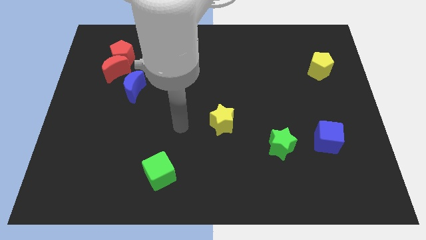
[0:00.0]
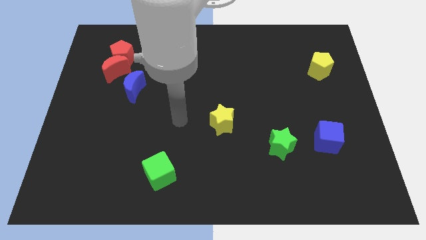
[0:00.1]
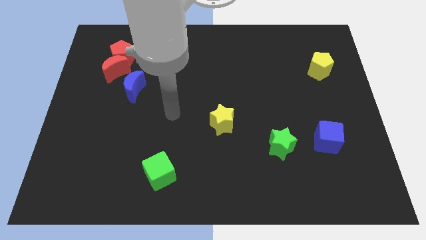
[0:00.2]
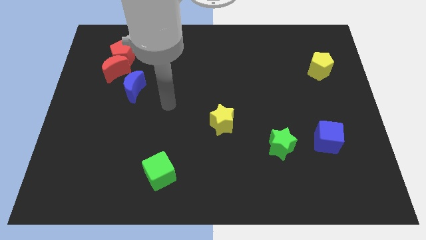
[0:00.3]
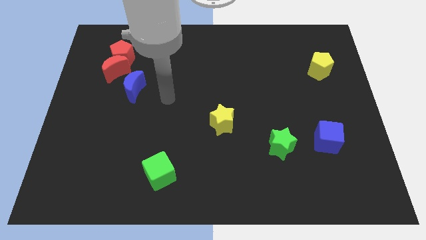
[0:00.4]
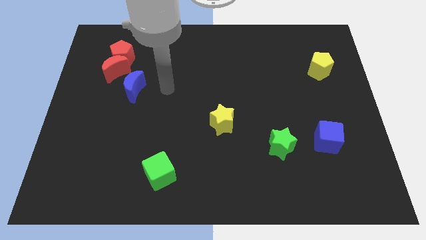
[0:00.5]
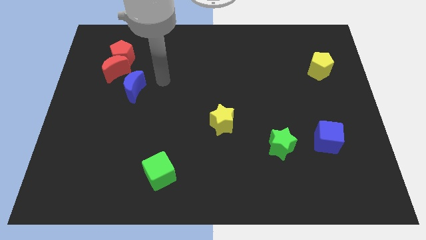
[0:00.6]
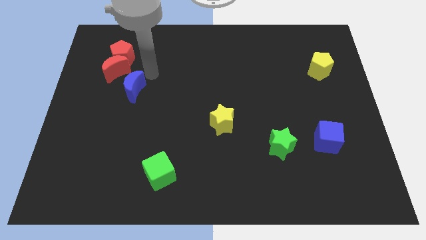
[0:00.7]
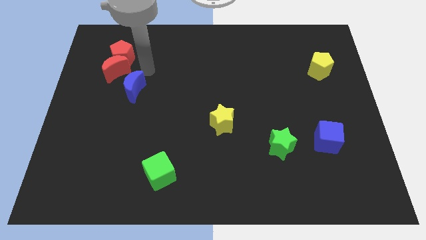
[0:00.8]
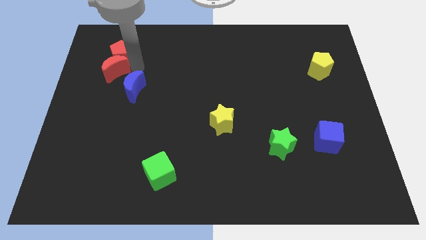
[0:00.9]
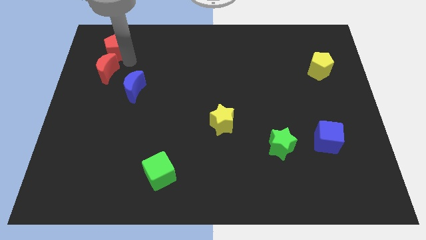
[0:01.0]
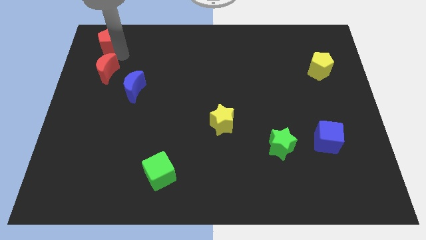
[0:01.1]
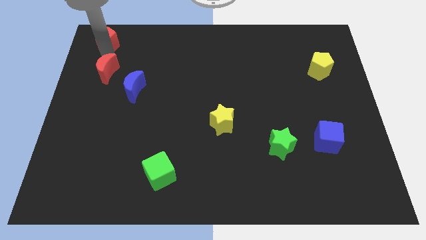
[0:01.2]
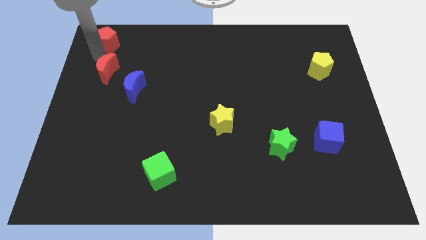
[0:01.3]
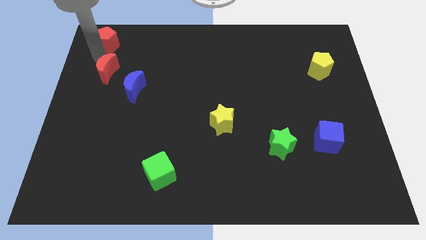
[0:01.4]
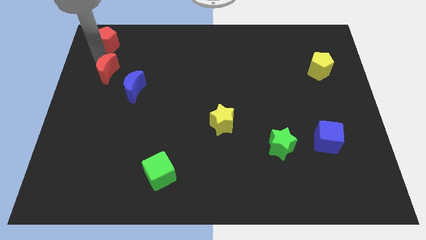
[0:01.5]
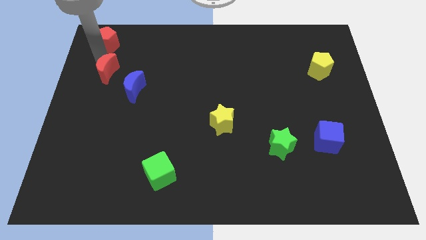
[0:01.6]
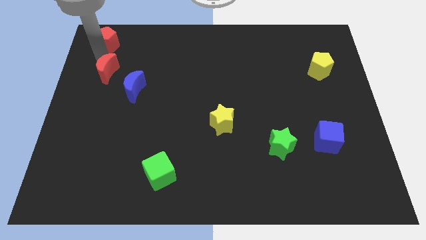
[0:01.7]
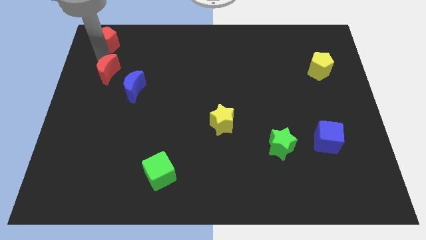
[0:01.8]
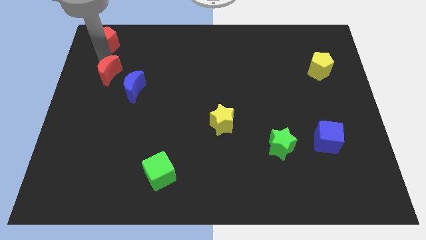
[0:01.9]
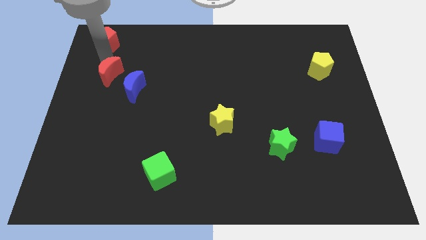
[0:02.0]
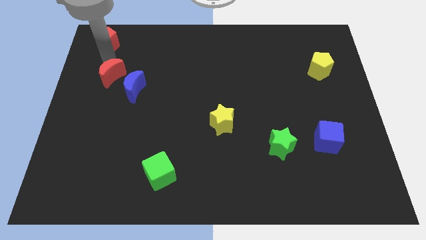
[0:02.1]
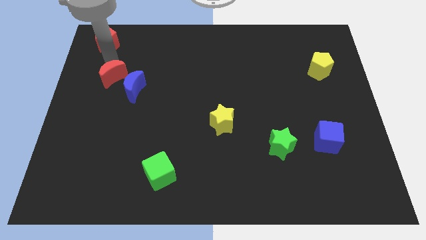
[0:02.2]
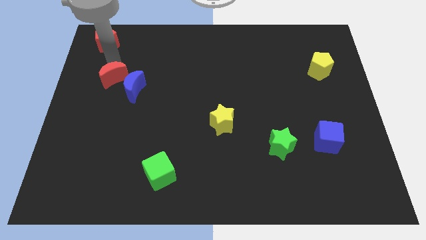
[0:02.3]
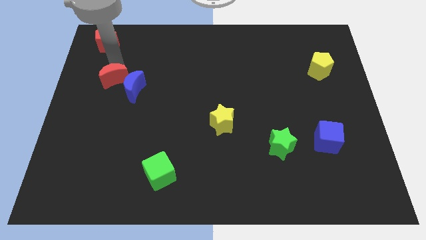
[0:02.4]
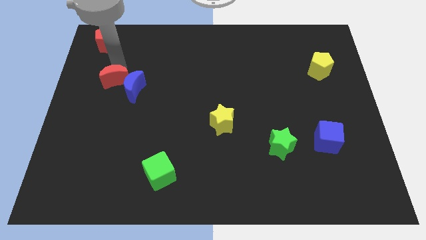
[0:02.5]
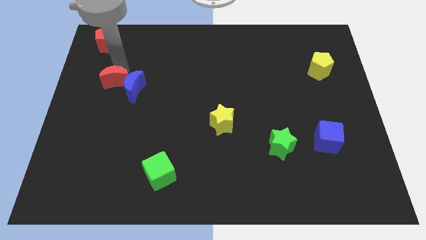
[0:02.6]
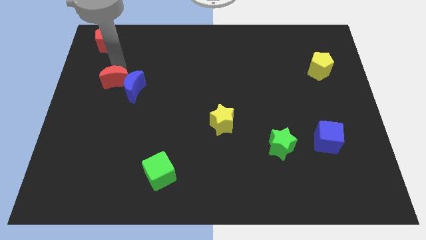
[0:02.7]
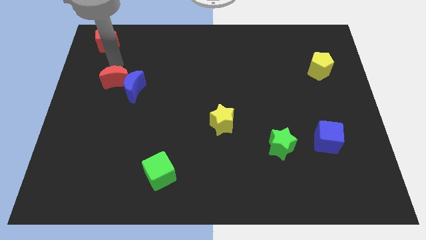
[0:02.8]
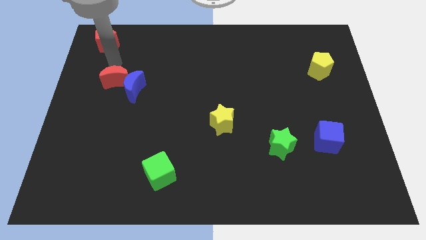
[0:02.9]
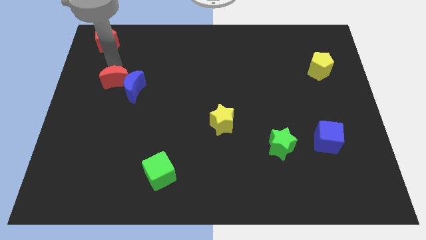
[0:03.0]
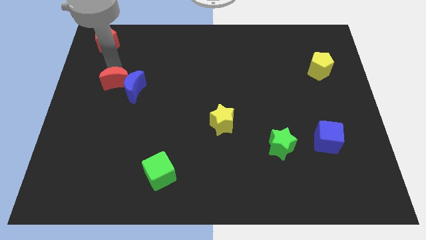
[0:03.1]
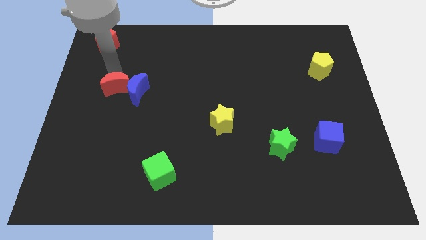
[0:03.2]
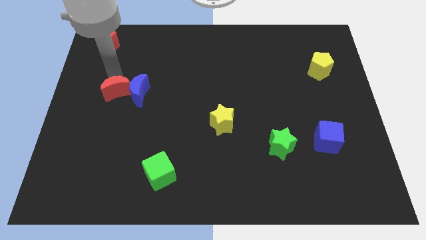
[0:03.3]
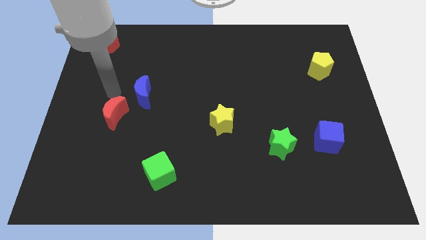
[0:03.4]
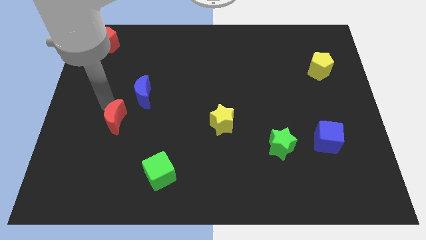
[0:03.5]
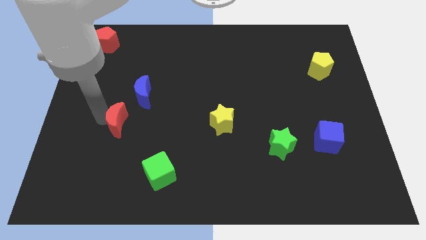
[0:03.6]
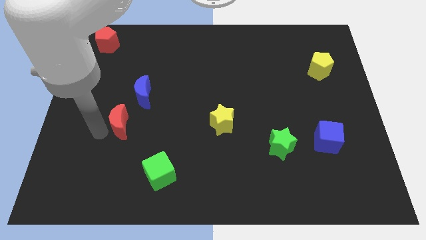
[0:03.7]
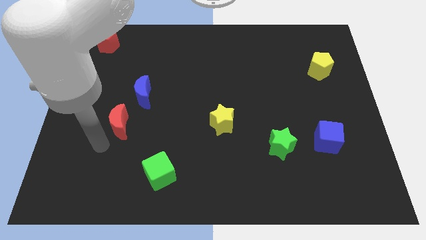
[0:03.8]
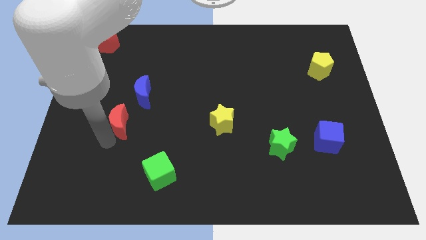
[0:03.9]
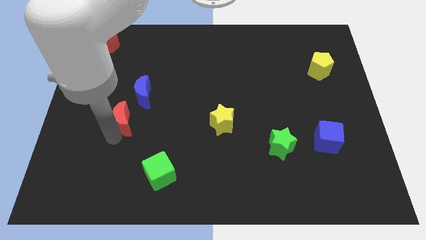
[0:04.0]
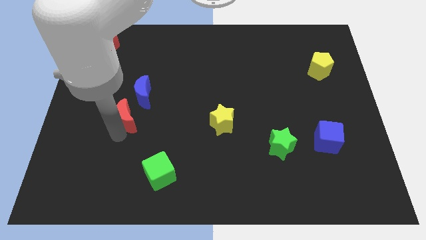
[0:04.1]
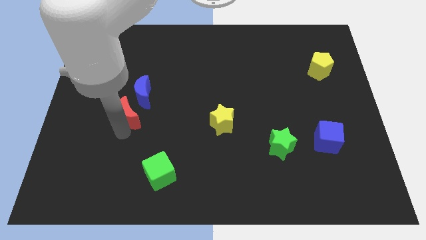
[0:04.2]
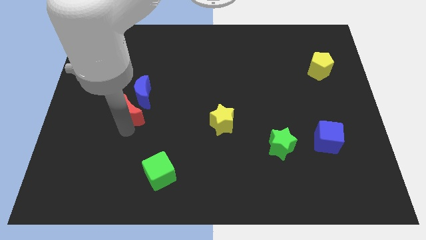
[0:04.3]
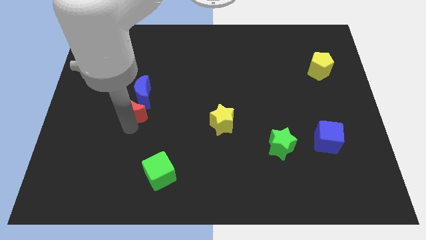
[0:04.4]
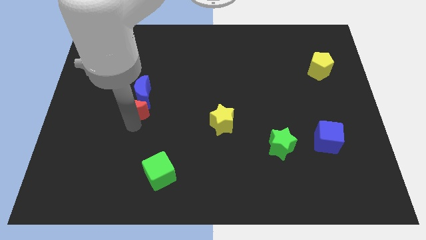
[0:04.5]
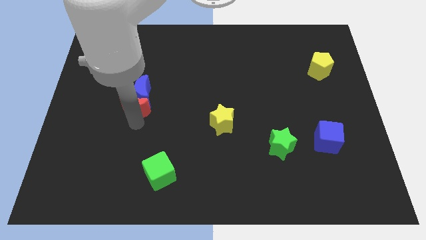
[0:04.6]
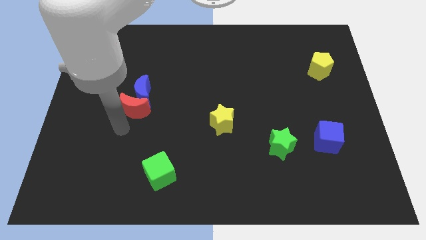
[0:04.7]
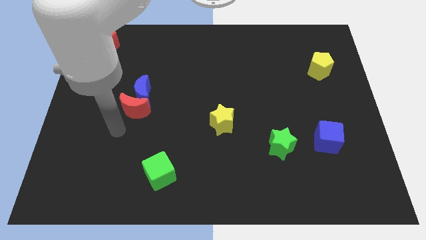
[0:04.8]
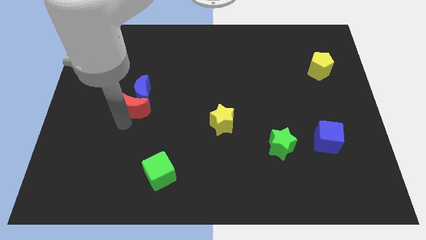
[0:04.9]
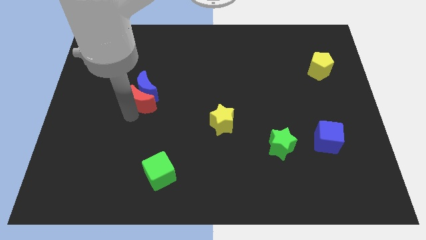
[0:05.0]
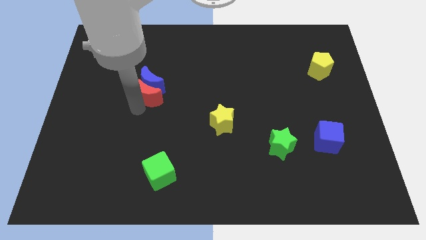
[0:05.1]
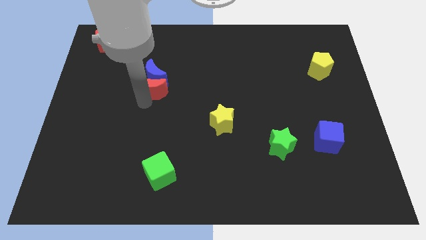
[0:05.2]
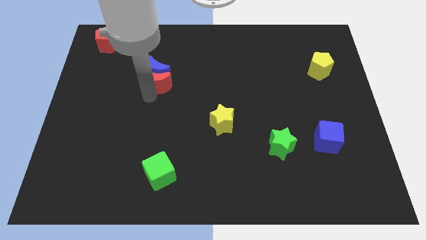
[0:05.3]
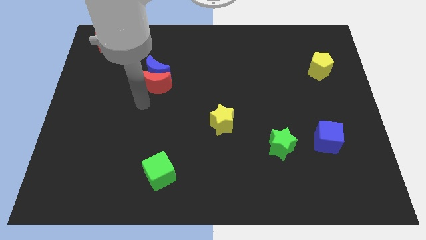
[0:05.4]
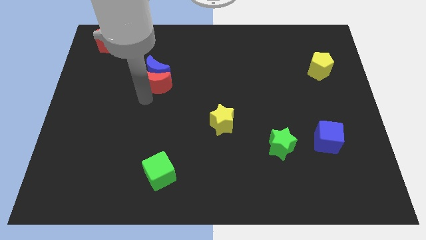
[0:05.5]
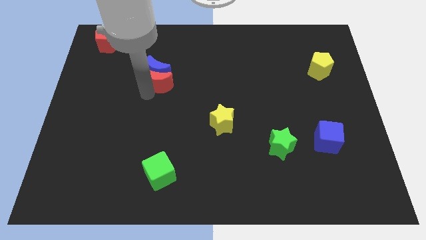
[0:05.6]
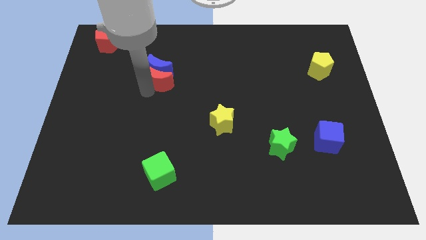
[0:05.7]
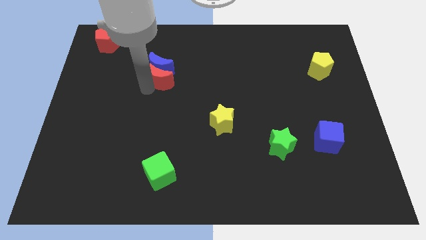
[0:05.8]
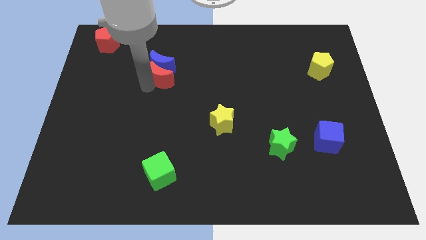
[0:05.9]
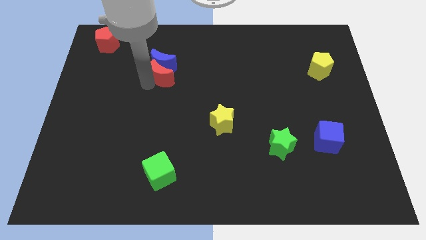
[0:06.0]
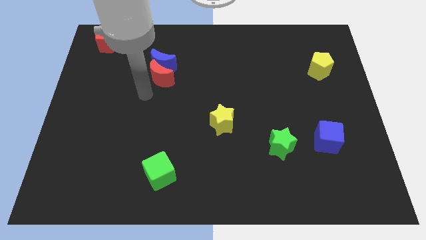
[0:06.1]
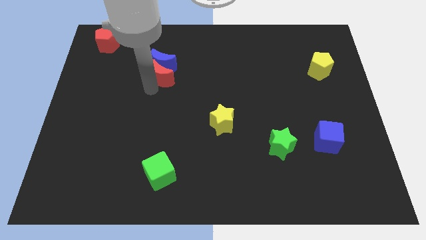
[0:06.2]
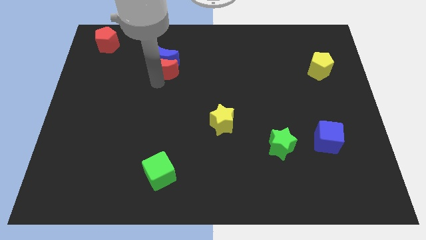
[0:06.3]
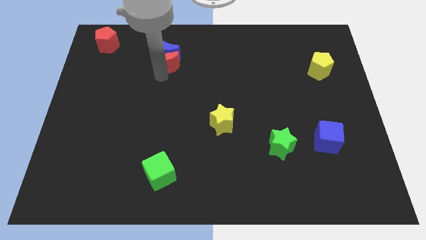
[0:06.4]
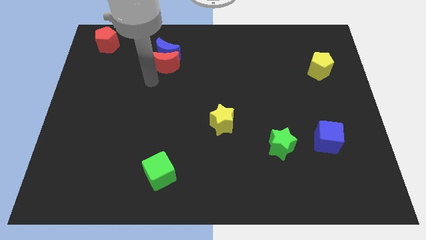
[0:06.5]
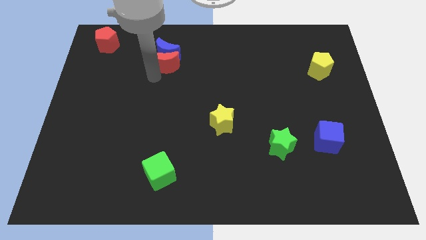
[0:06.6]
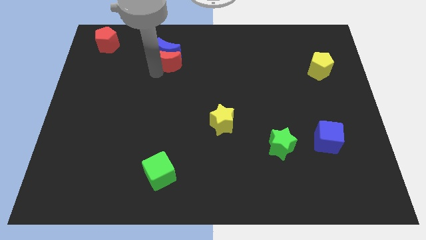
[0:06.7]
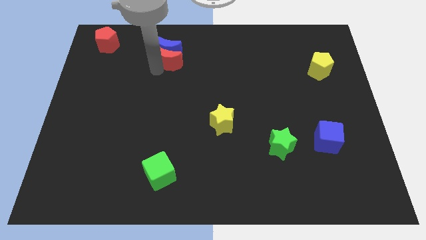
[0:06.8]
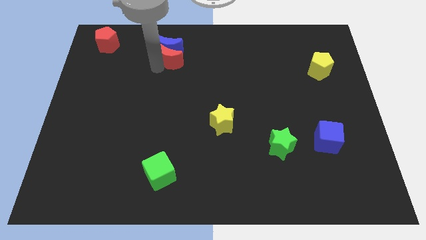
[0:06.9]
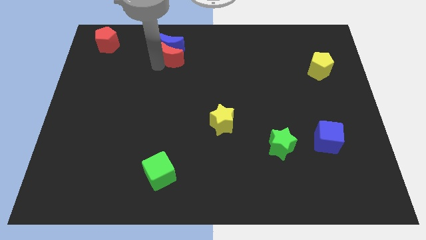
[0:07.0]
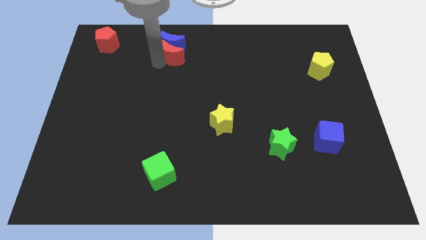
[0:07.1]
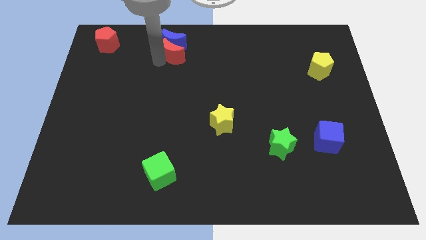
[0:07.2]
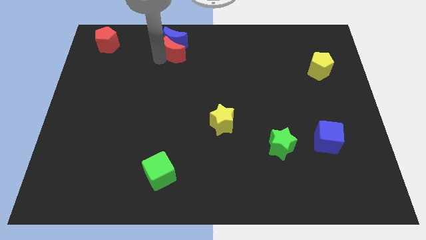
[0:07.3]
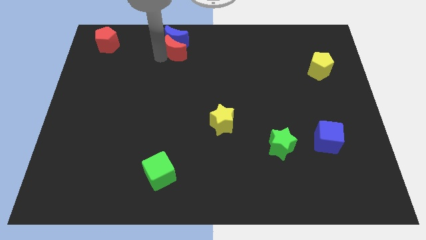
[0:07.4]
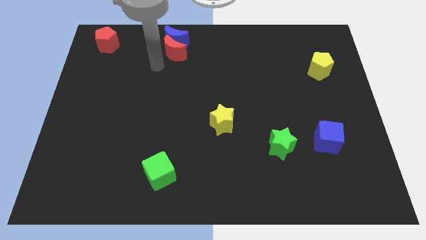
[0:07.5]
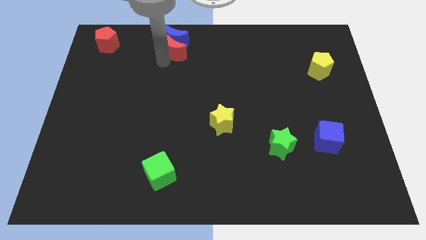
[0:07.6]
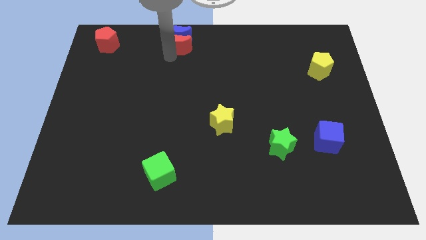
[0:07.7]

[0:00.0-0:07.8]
slide the red moon to the top
